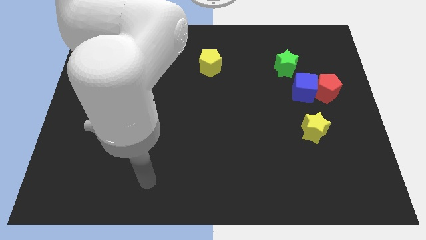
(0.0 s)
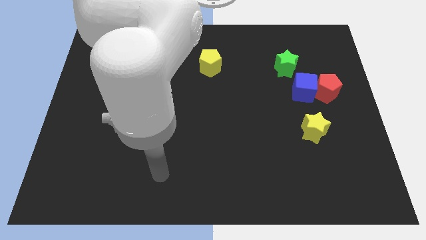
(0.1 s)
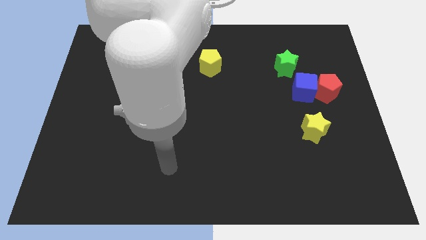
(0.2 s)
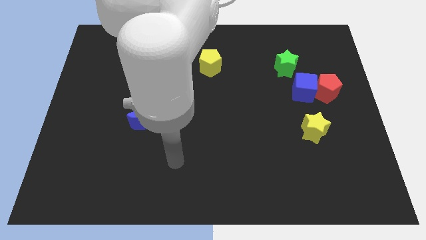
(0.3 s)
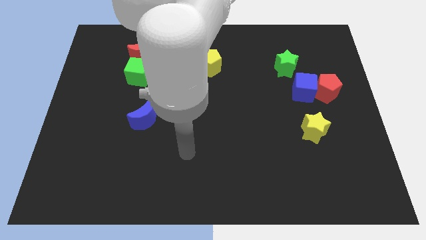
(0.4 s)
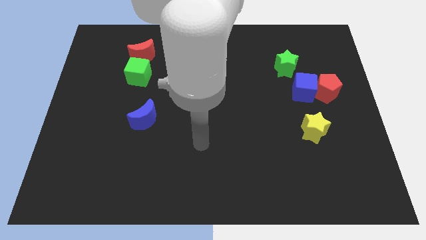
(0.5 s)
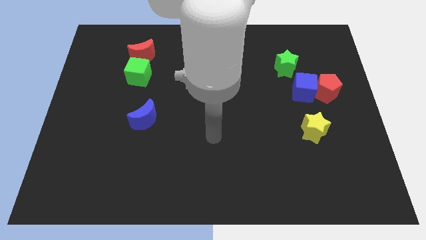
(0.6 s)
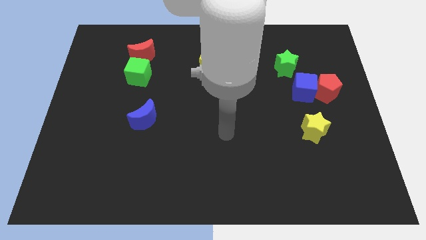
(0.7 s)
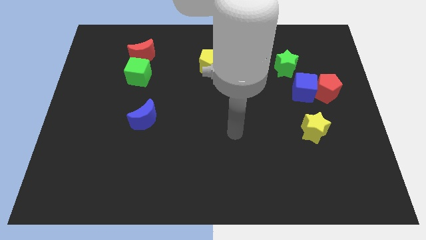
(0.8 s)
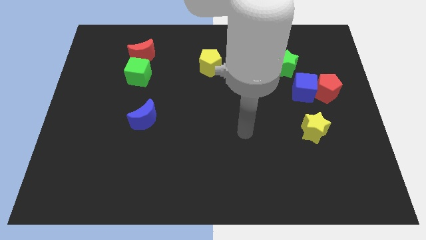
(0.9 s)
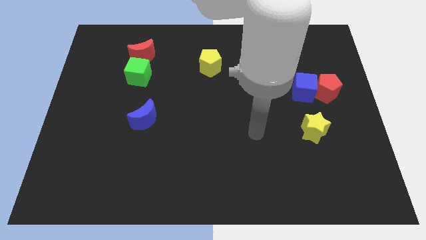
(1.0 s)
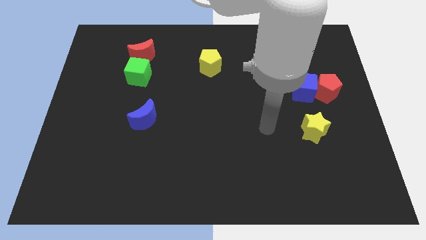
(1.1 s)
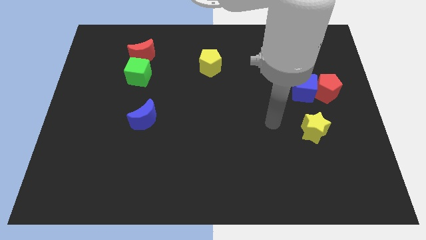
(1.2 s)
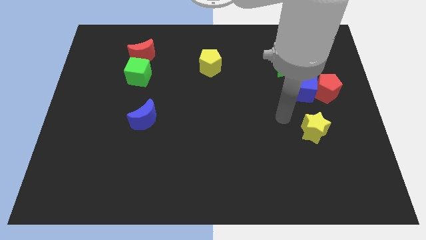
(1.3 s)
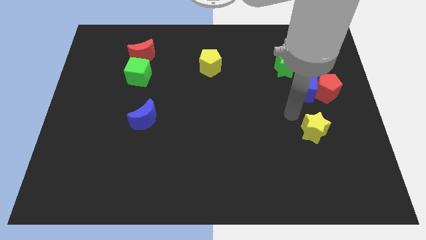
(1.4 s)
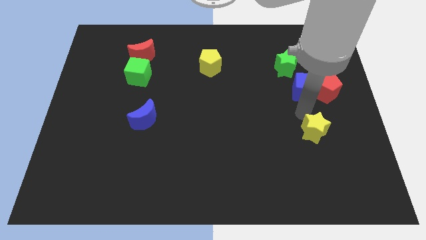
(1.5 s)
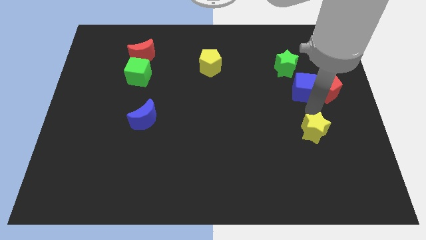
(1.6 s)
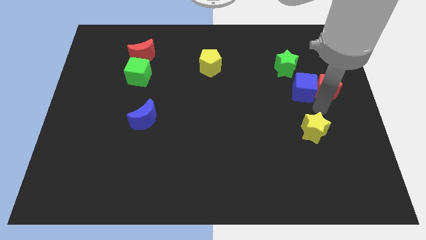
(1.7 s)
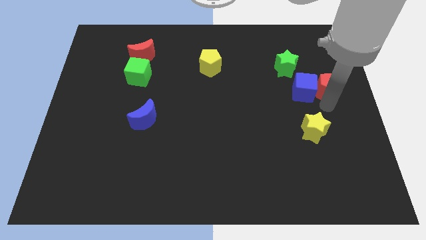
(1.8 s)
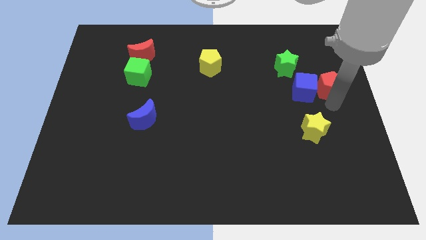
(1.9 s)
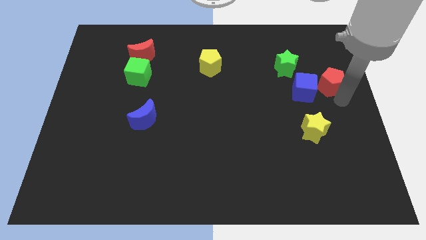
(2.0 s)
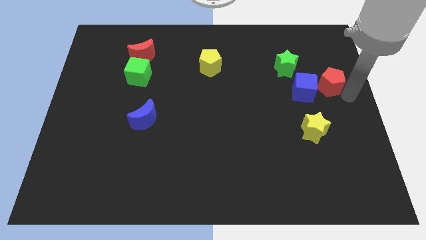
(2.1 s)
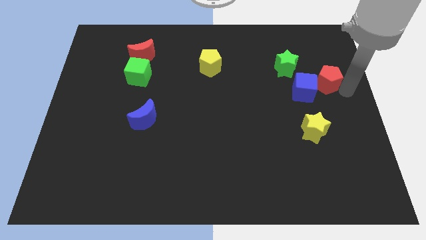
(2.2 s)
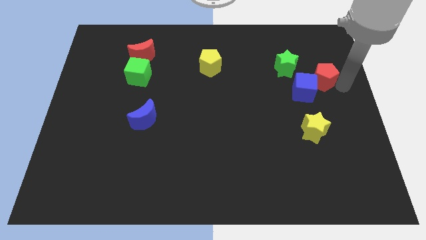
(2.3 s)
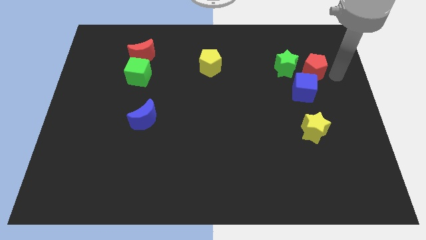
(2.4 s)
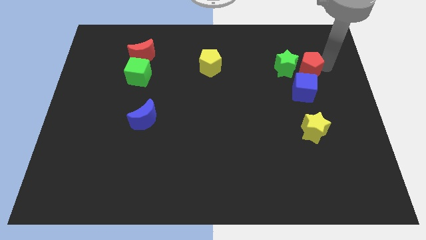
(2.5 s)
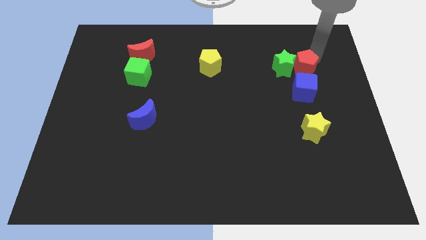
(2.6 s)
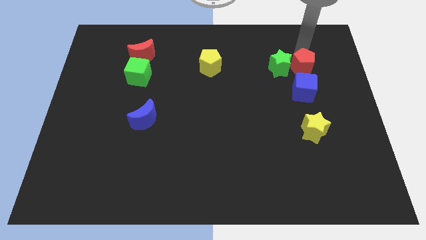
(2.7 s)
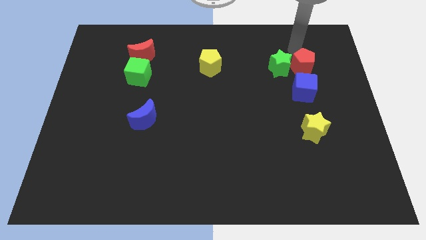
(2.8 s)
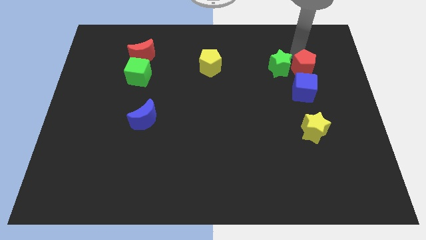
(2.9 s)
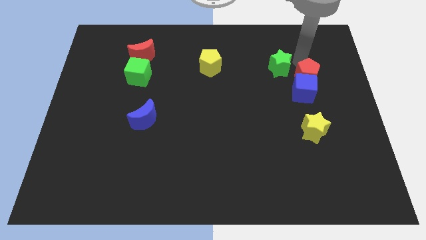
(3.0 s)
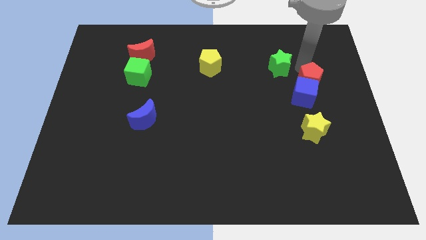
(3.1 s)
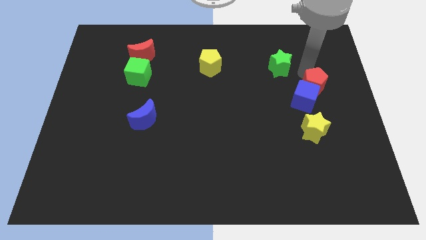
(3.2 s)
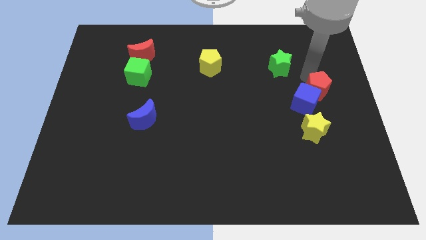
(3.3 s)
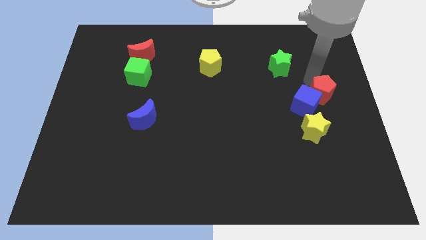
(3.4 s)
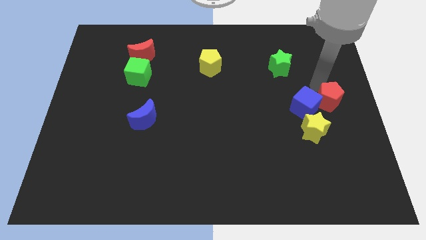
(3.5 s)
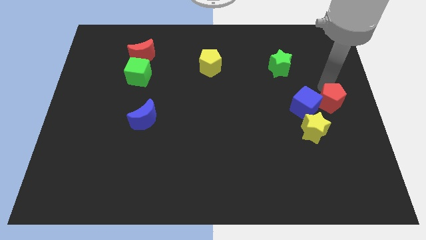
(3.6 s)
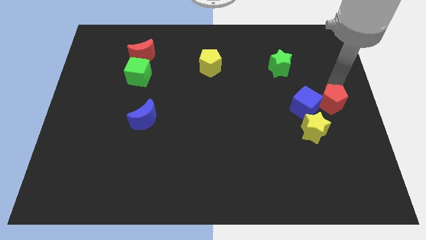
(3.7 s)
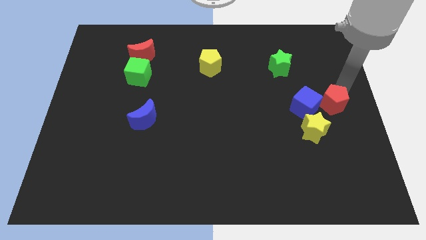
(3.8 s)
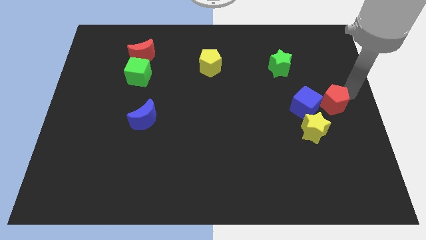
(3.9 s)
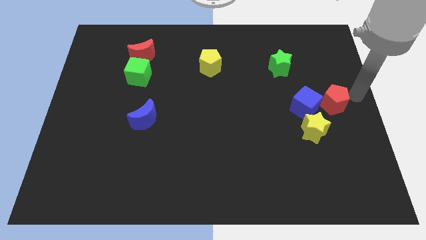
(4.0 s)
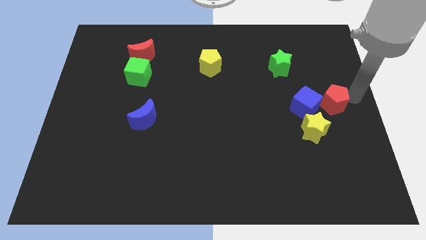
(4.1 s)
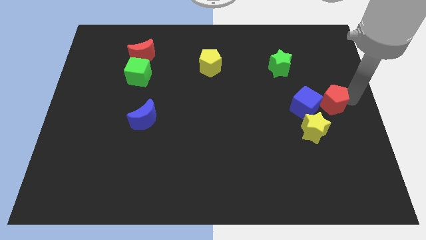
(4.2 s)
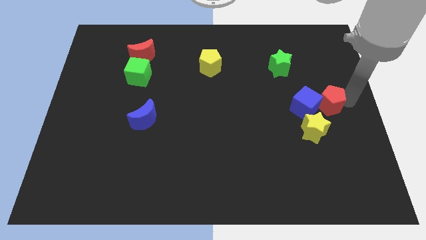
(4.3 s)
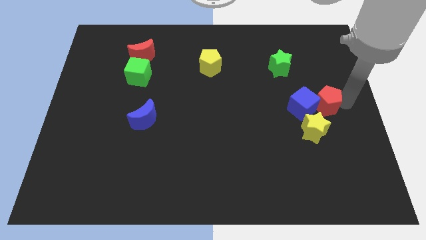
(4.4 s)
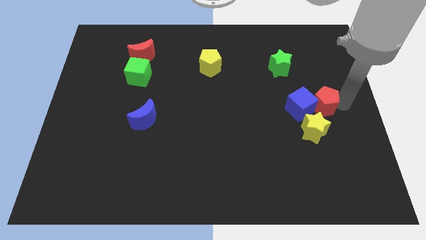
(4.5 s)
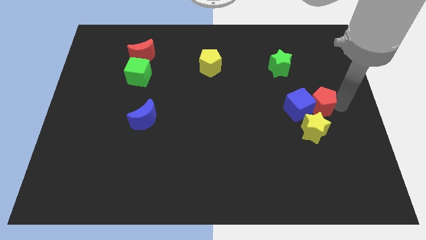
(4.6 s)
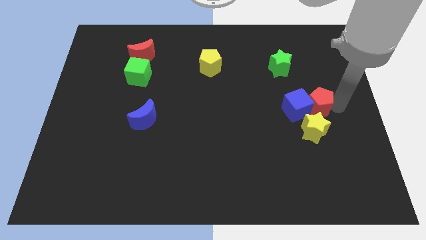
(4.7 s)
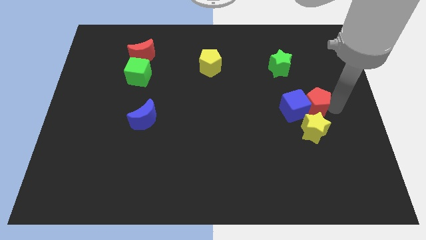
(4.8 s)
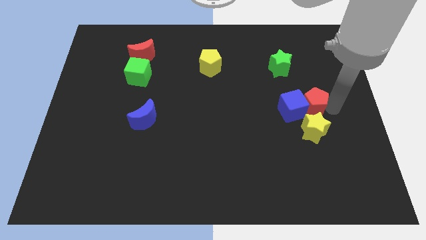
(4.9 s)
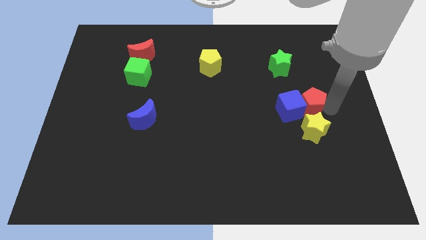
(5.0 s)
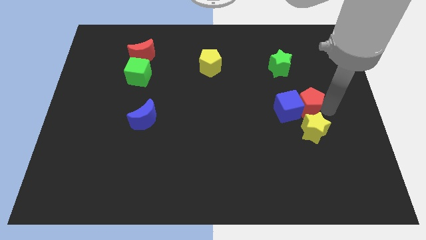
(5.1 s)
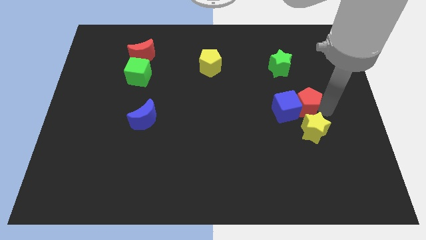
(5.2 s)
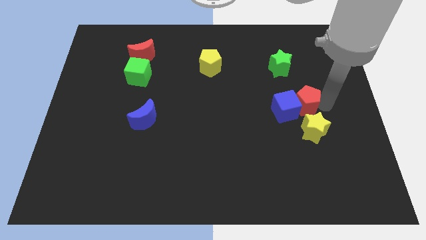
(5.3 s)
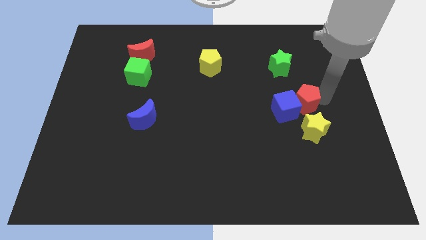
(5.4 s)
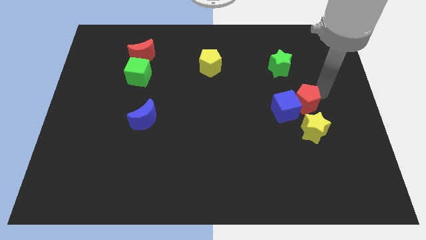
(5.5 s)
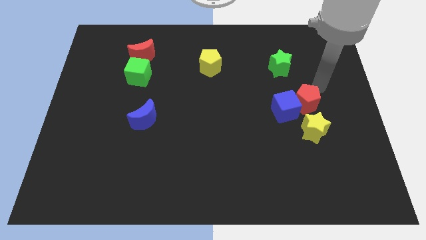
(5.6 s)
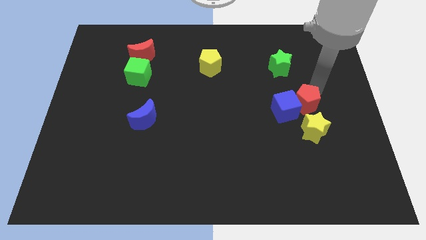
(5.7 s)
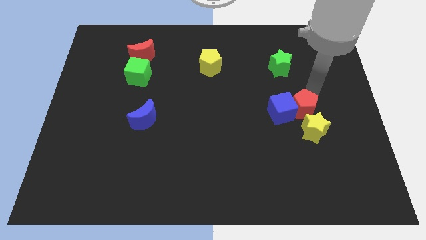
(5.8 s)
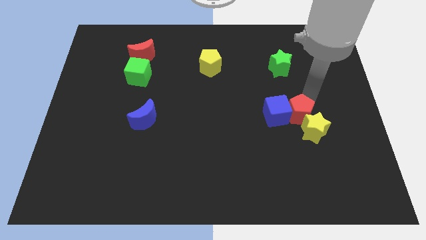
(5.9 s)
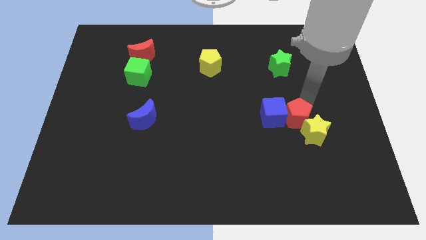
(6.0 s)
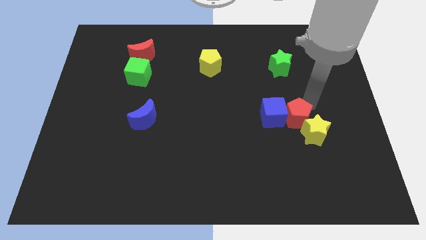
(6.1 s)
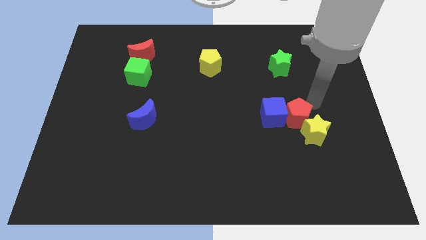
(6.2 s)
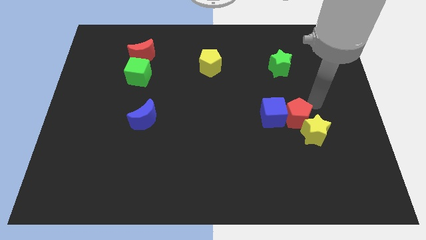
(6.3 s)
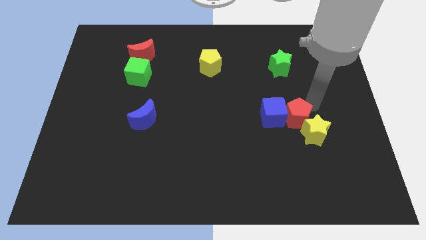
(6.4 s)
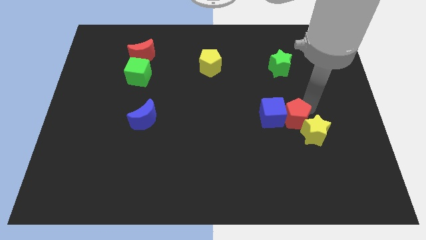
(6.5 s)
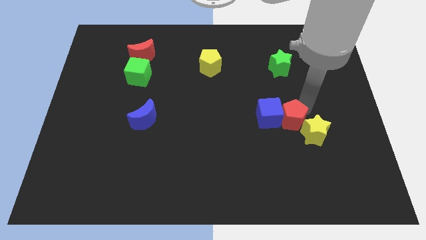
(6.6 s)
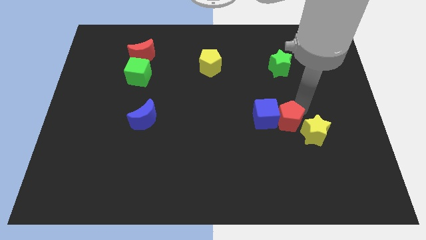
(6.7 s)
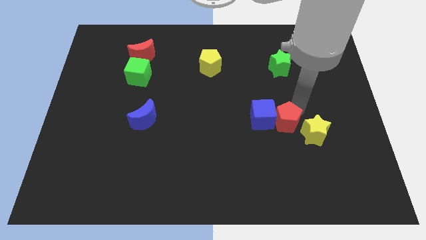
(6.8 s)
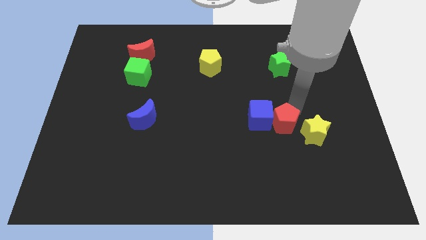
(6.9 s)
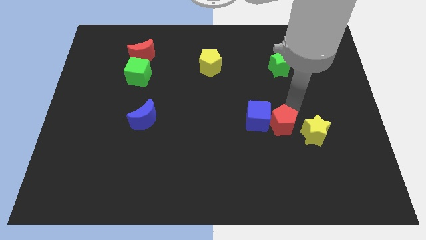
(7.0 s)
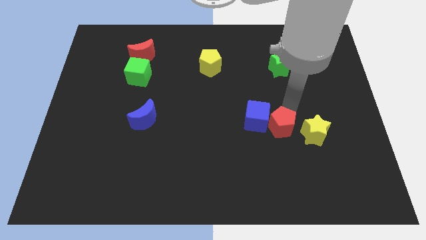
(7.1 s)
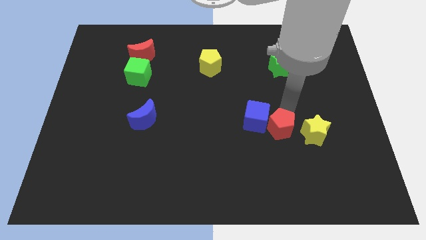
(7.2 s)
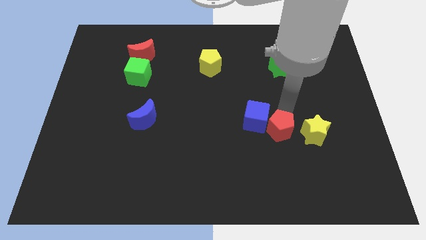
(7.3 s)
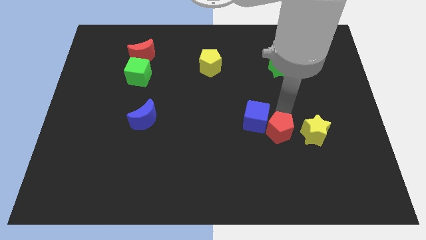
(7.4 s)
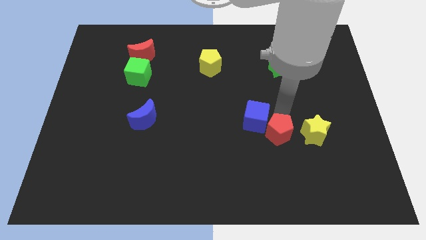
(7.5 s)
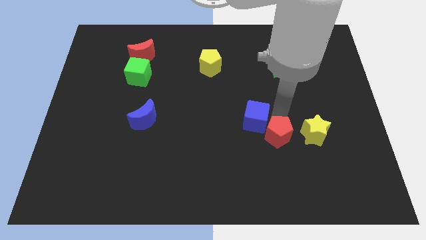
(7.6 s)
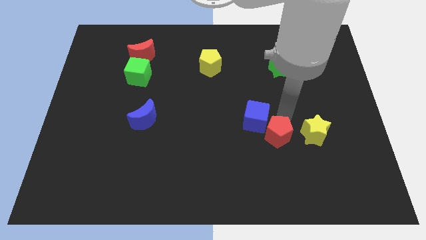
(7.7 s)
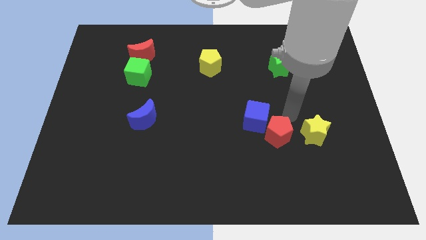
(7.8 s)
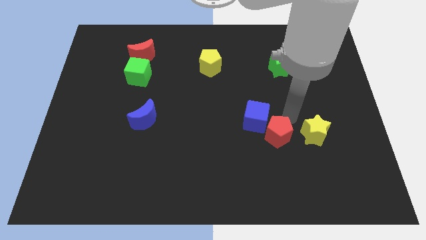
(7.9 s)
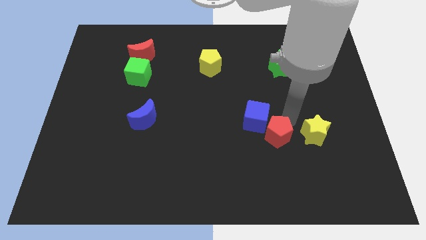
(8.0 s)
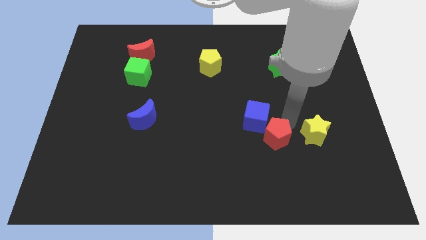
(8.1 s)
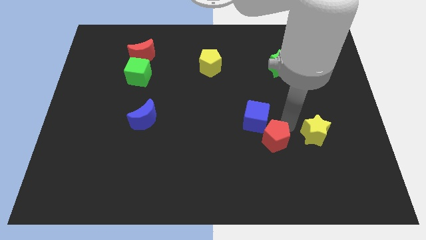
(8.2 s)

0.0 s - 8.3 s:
push the red pentagon down and to the left diagonally
